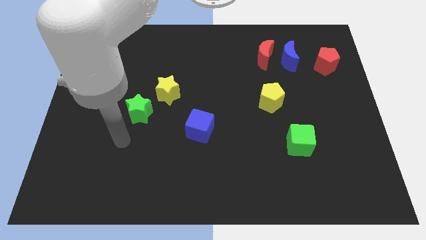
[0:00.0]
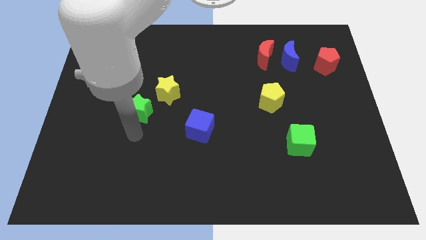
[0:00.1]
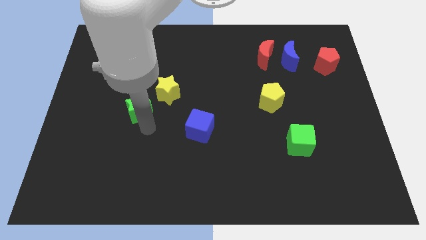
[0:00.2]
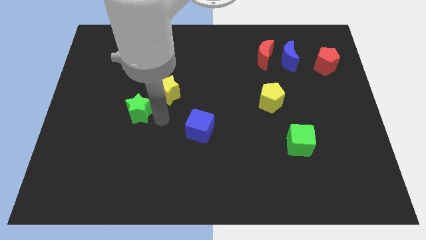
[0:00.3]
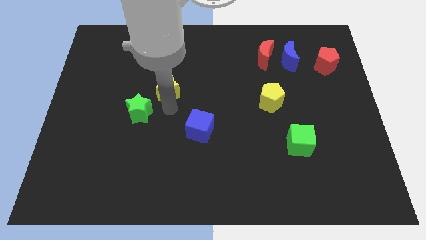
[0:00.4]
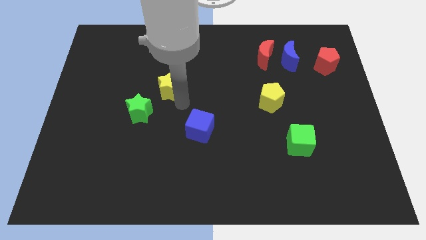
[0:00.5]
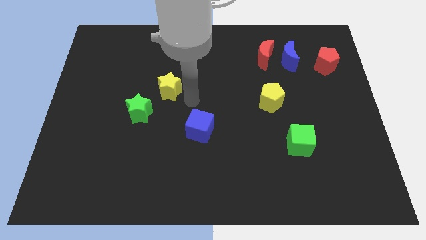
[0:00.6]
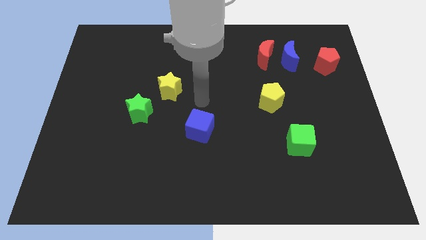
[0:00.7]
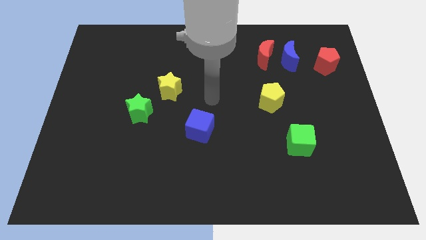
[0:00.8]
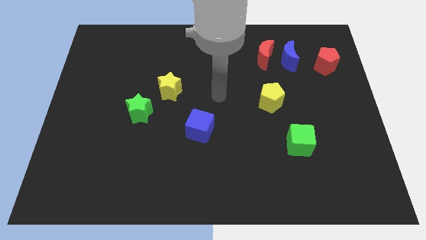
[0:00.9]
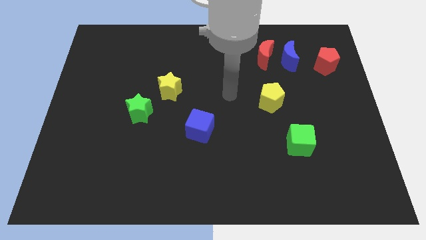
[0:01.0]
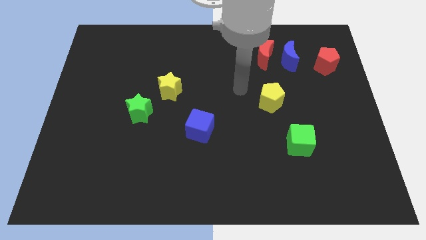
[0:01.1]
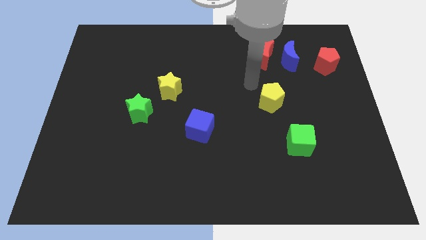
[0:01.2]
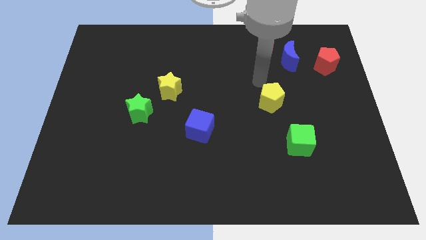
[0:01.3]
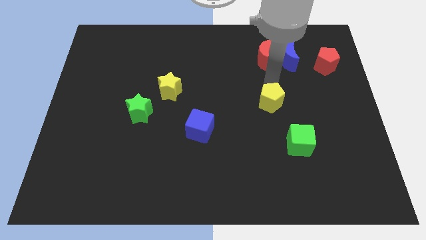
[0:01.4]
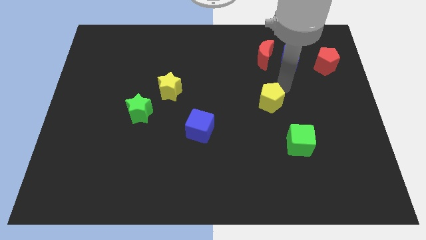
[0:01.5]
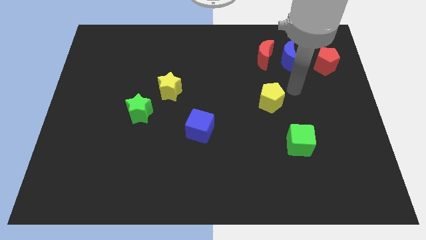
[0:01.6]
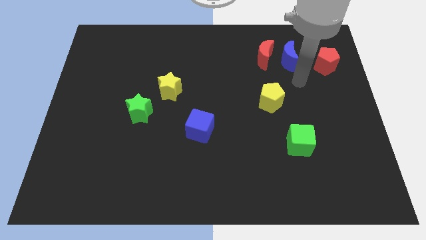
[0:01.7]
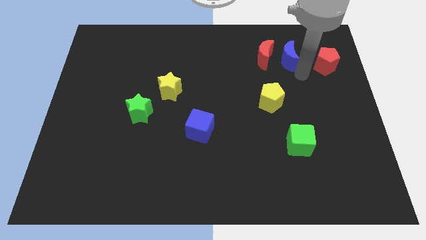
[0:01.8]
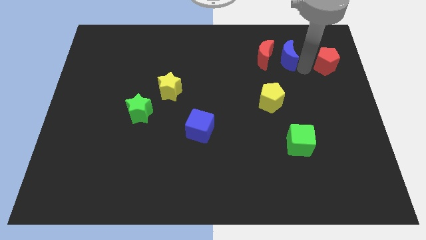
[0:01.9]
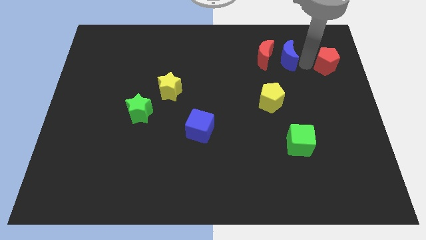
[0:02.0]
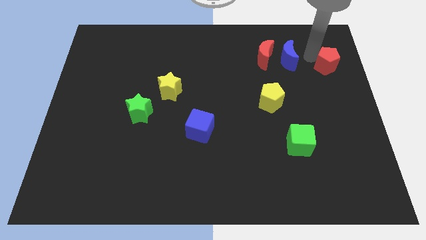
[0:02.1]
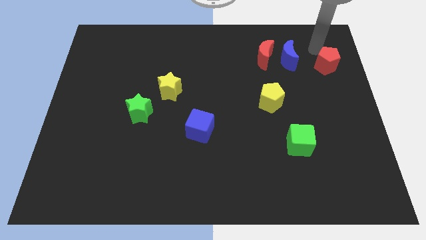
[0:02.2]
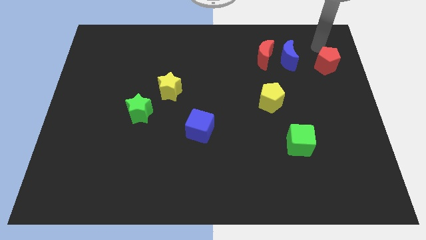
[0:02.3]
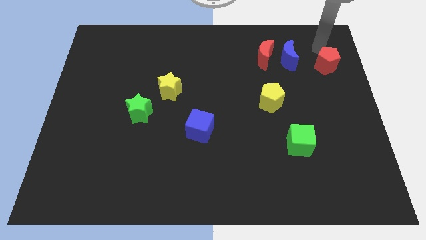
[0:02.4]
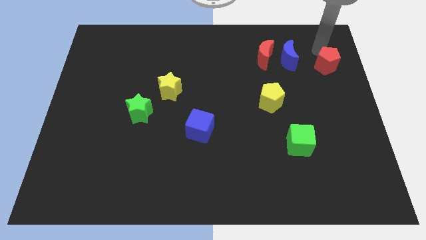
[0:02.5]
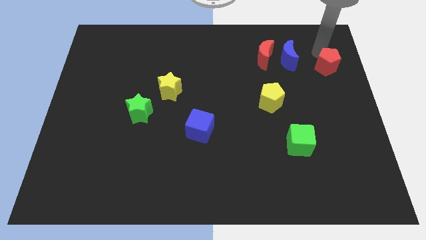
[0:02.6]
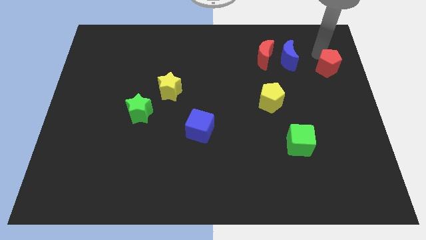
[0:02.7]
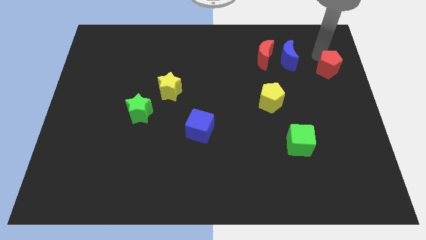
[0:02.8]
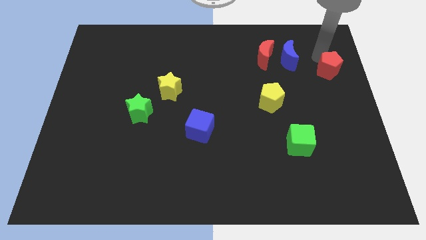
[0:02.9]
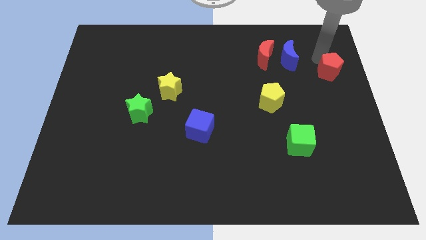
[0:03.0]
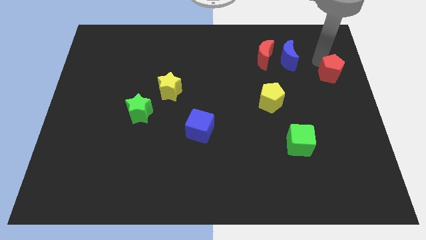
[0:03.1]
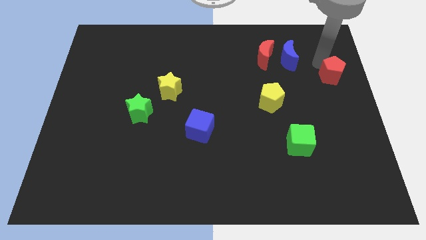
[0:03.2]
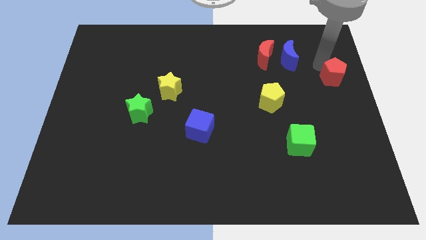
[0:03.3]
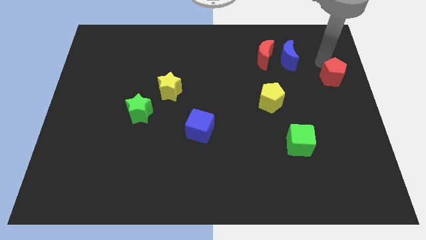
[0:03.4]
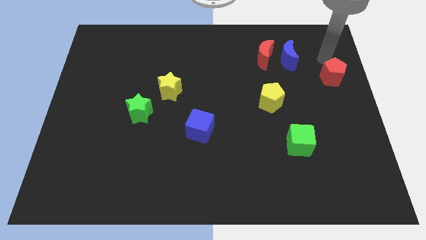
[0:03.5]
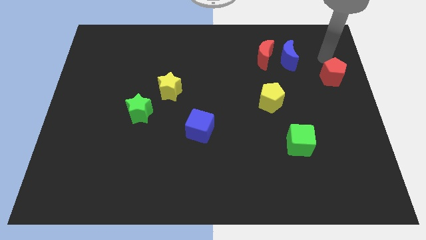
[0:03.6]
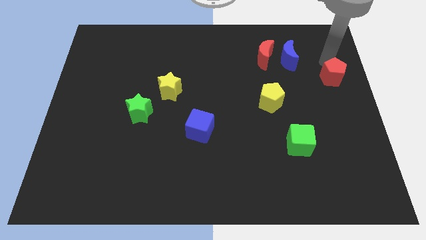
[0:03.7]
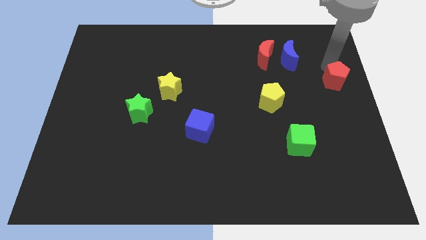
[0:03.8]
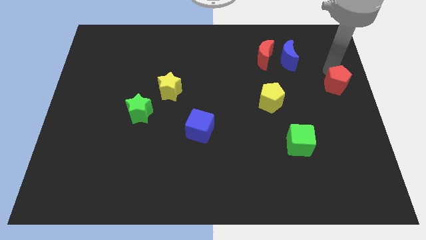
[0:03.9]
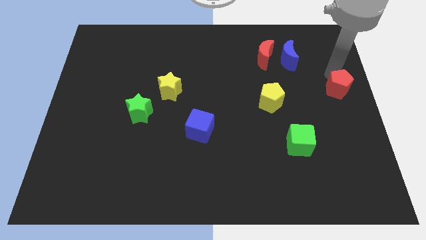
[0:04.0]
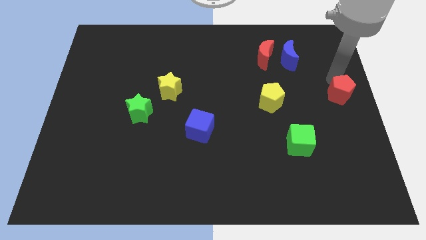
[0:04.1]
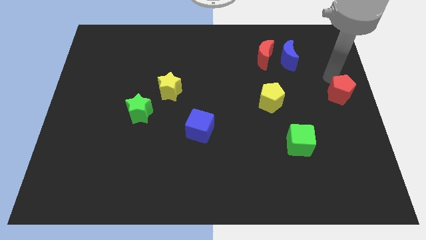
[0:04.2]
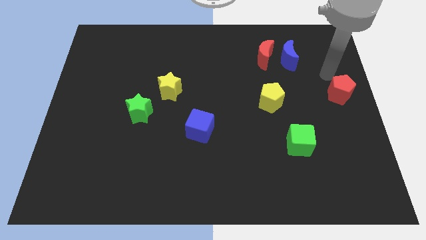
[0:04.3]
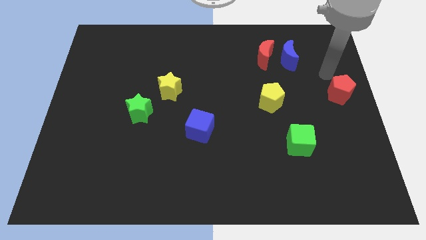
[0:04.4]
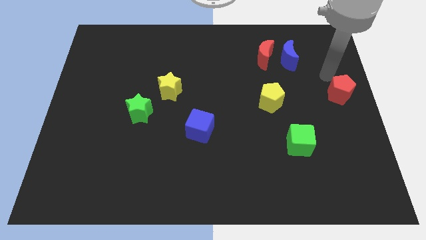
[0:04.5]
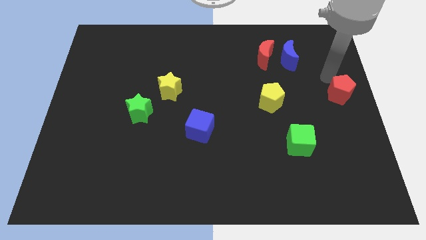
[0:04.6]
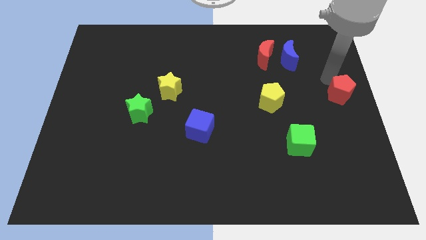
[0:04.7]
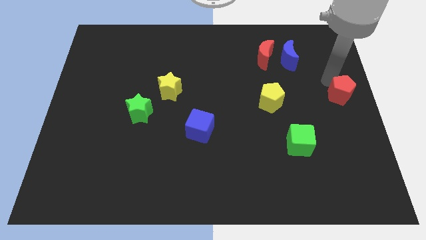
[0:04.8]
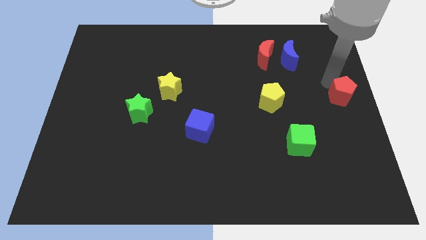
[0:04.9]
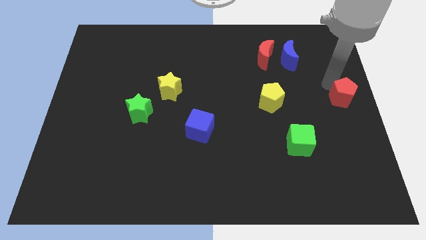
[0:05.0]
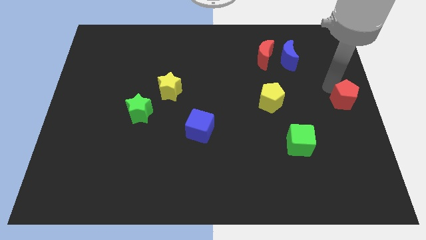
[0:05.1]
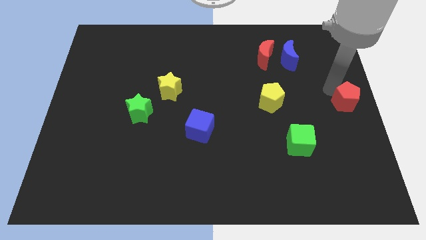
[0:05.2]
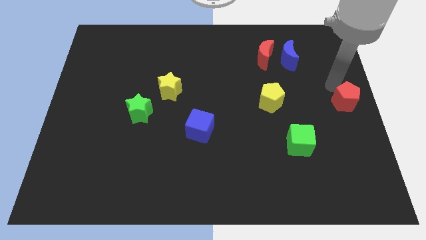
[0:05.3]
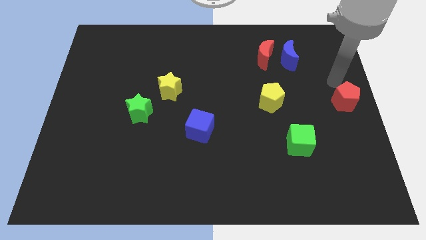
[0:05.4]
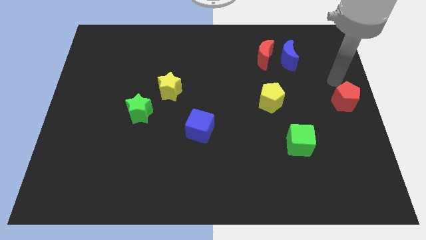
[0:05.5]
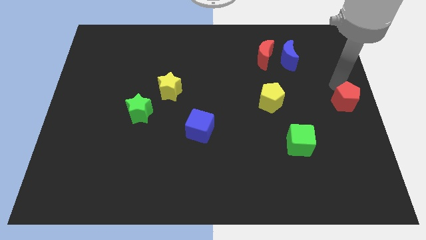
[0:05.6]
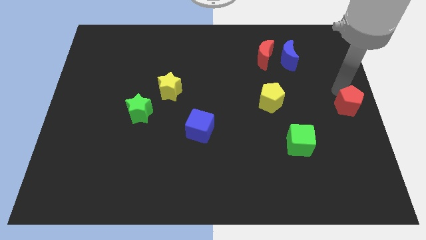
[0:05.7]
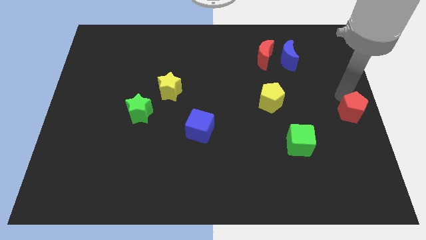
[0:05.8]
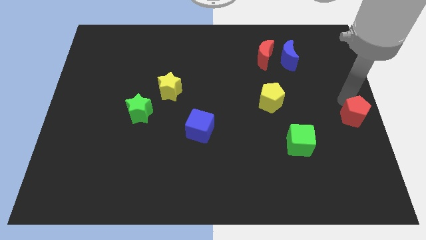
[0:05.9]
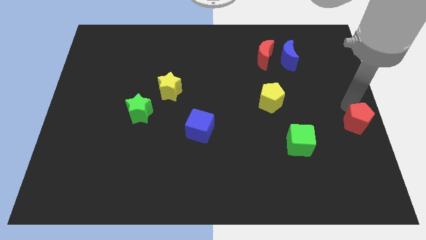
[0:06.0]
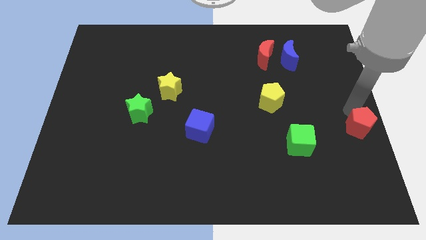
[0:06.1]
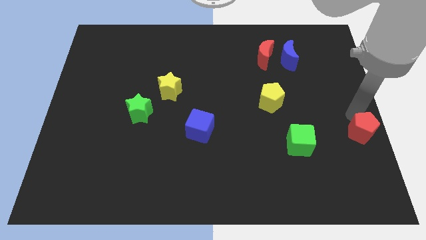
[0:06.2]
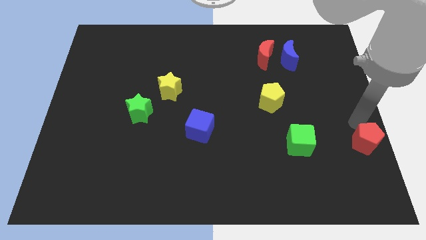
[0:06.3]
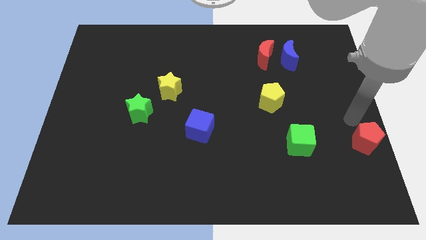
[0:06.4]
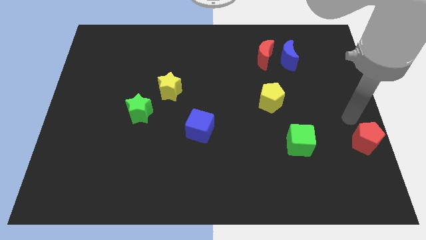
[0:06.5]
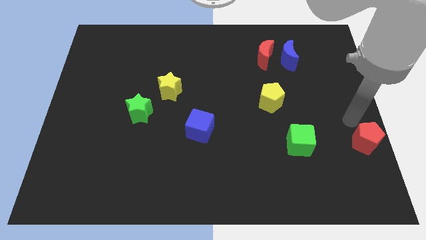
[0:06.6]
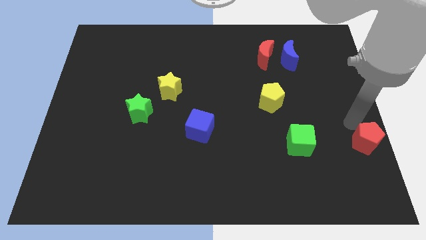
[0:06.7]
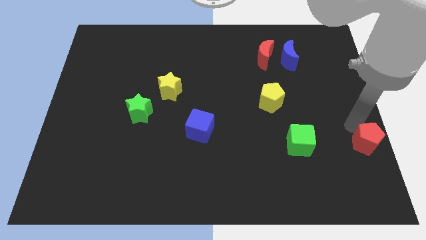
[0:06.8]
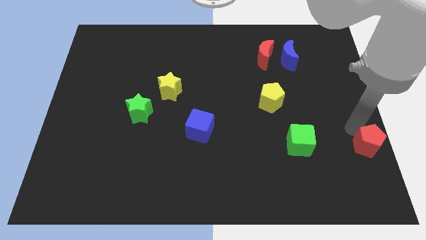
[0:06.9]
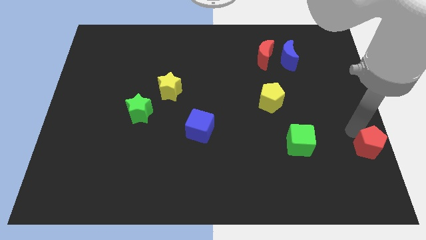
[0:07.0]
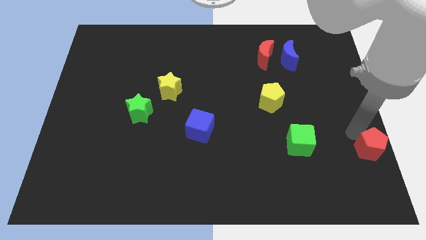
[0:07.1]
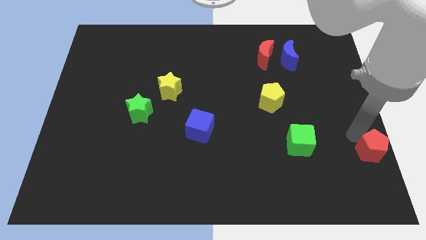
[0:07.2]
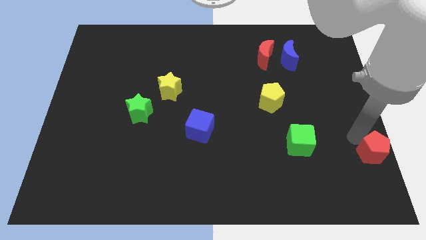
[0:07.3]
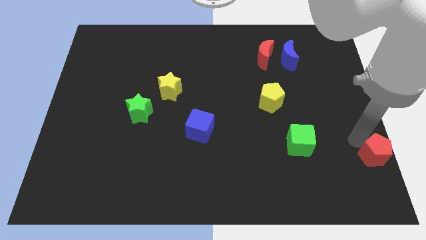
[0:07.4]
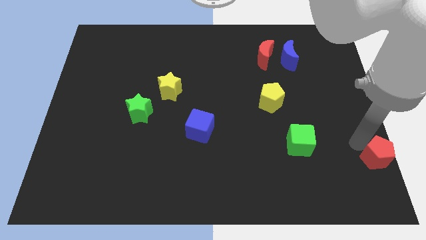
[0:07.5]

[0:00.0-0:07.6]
slide the red pentagon to the lower right corner
